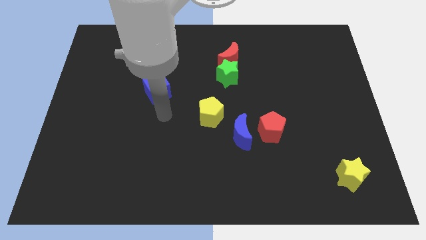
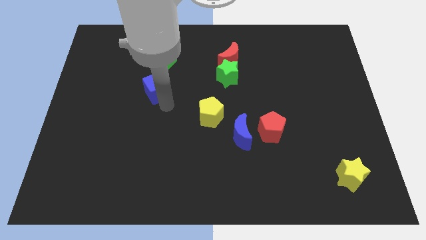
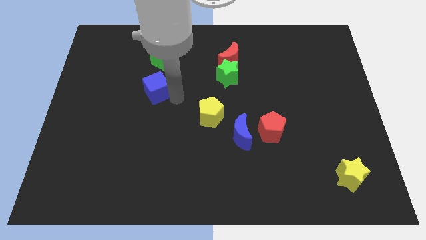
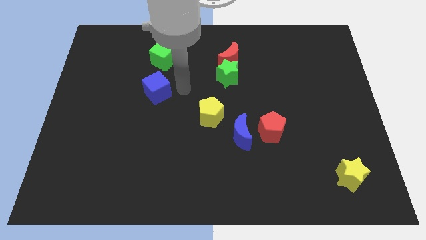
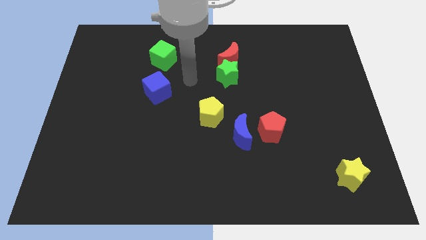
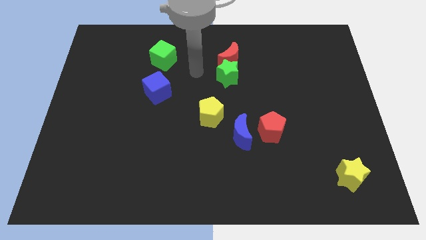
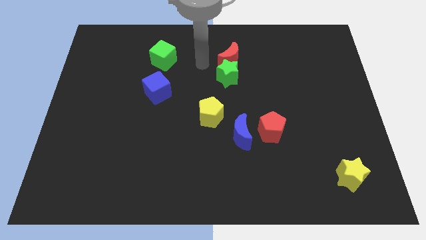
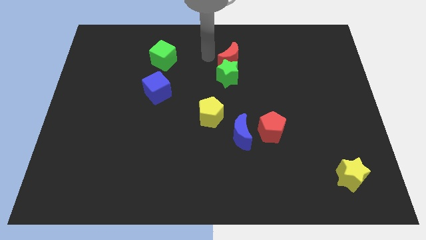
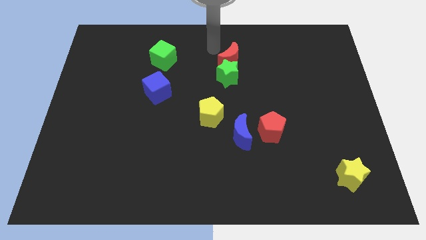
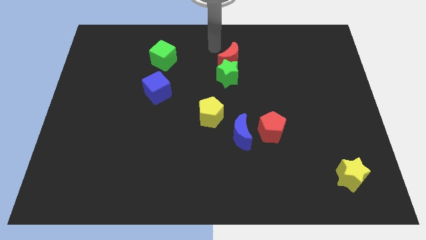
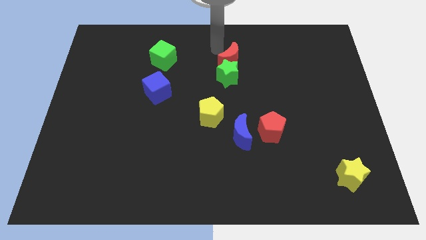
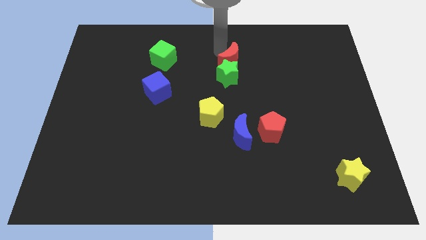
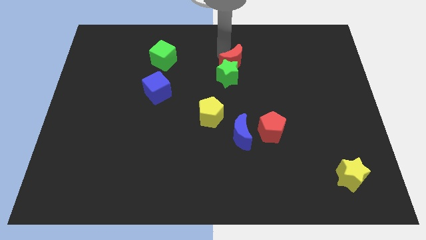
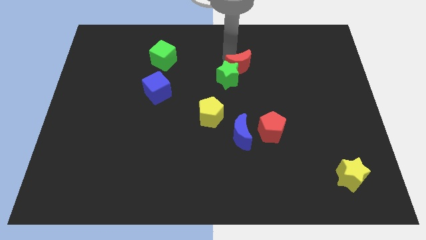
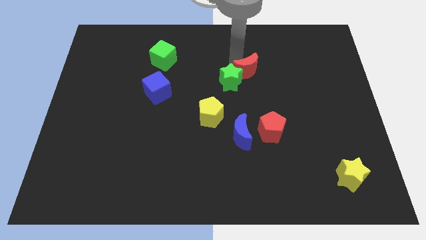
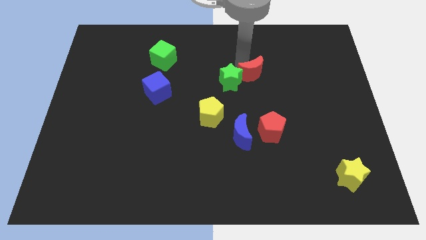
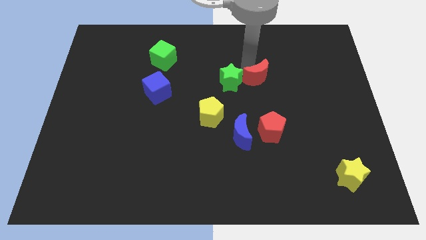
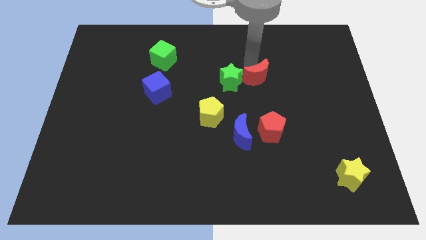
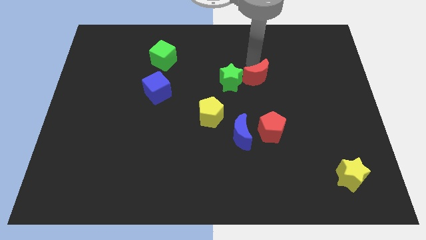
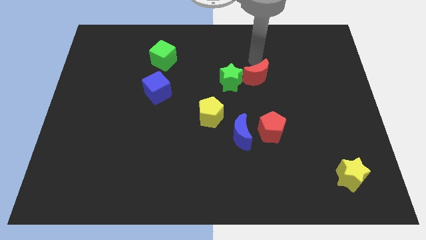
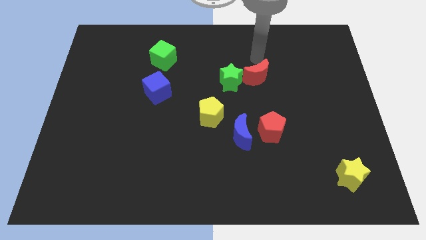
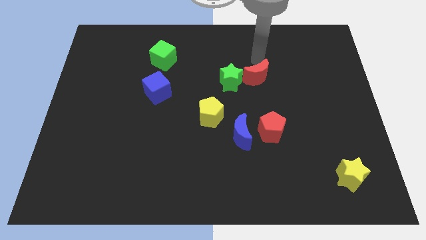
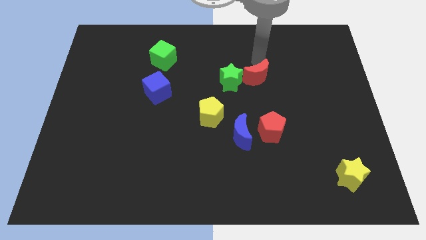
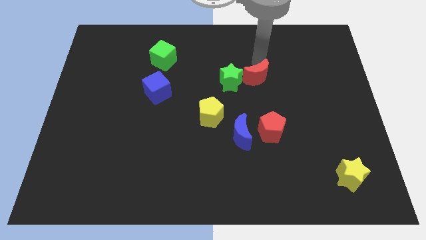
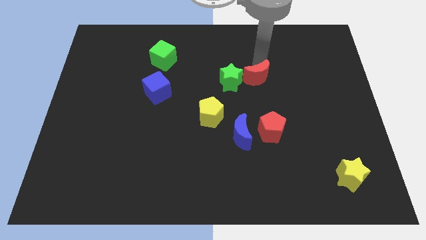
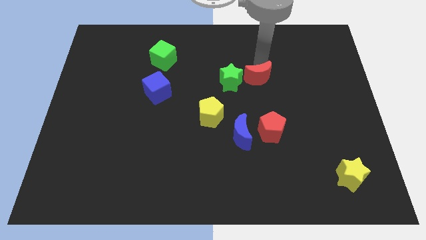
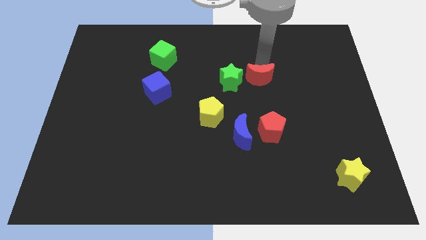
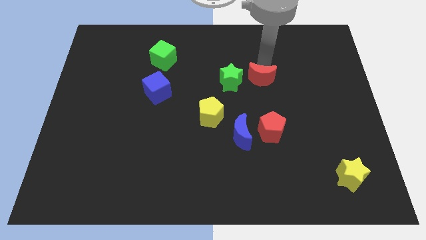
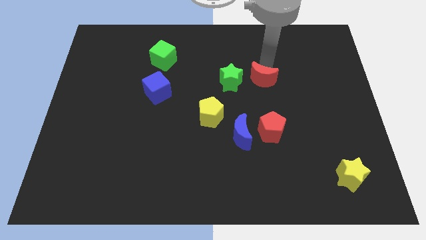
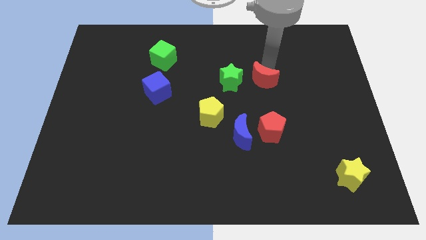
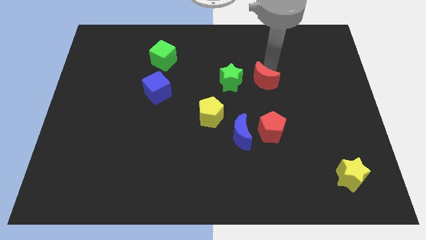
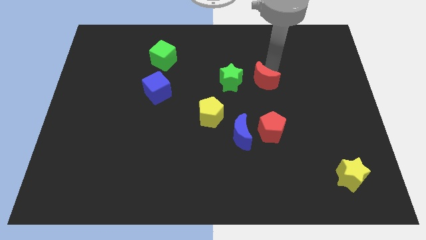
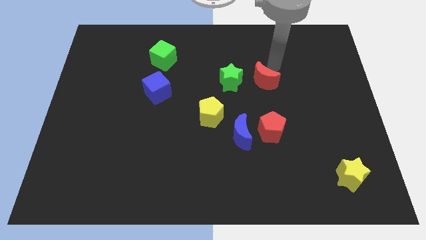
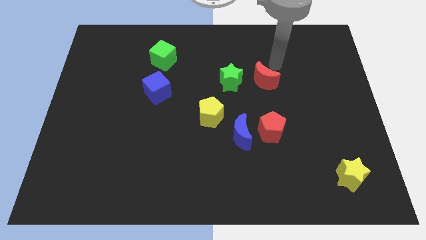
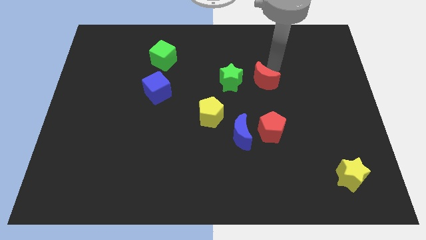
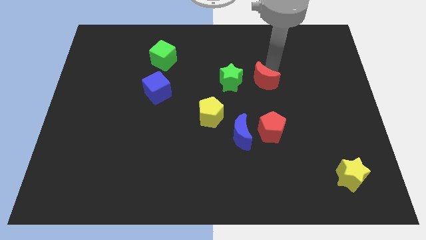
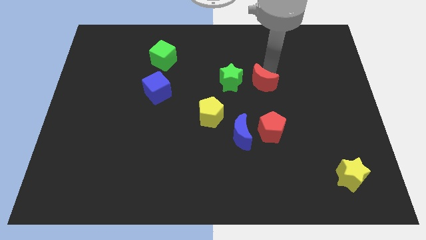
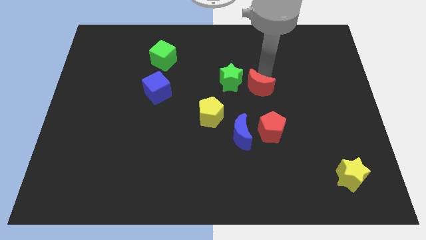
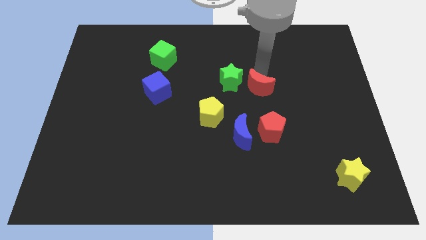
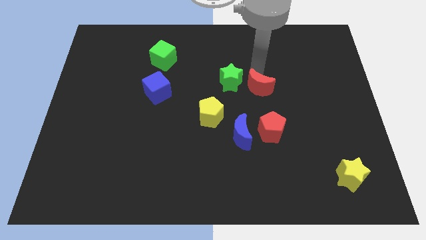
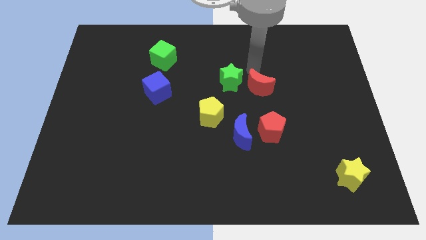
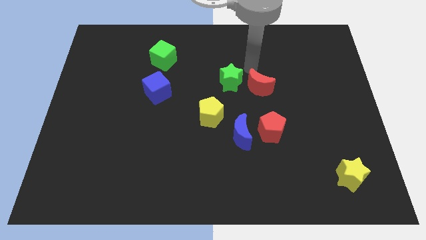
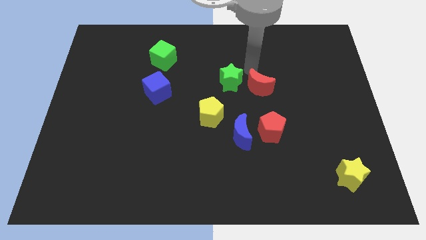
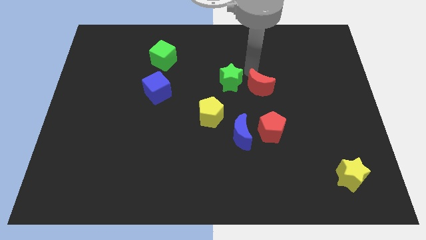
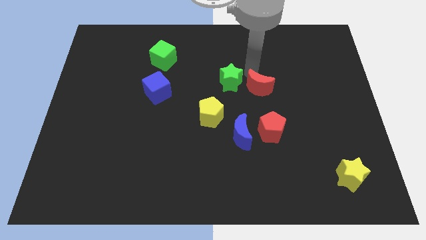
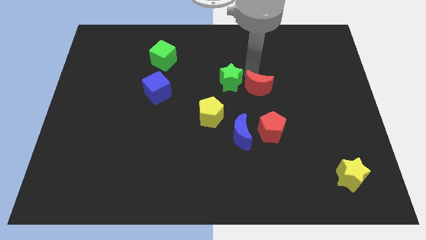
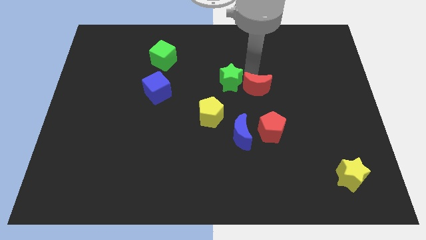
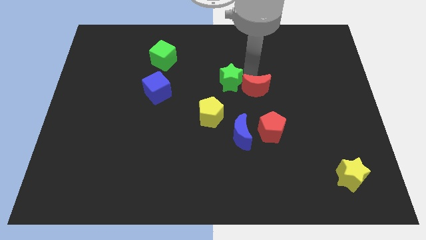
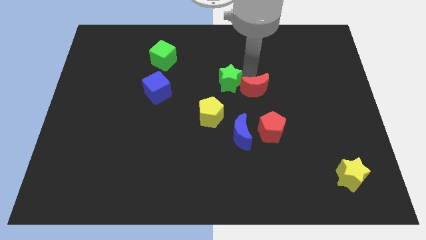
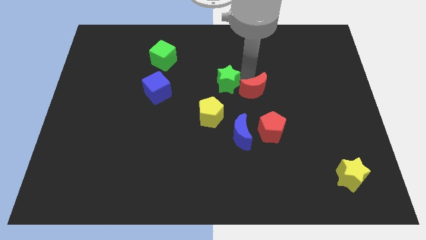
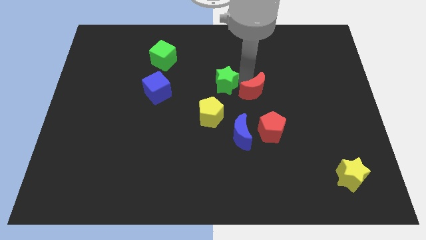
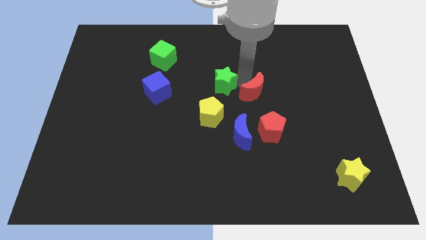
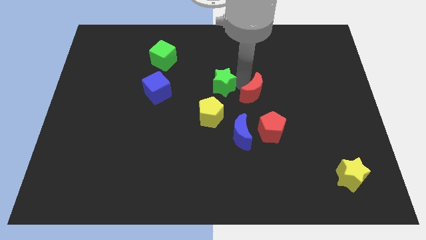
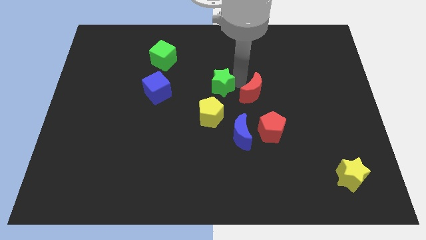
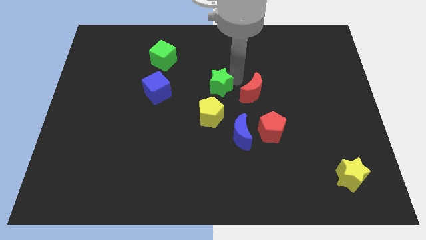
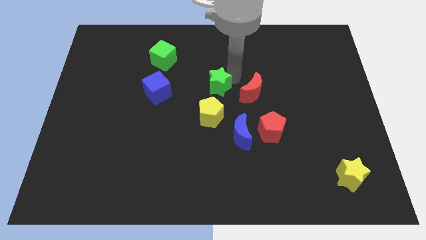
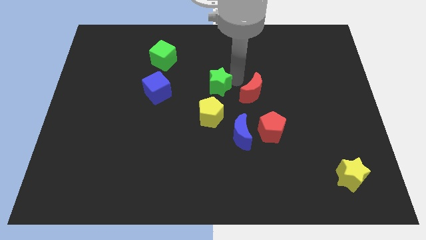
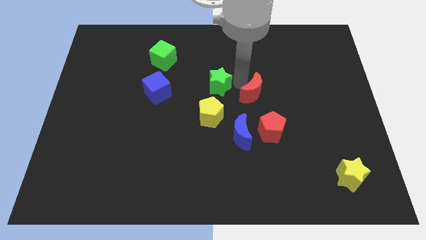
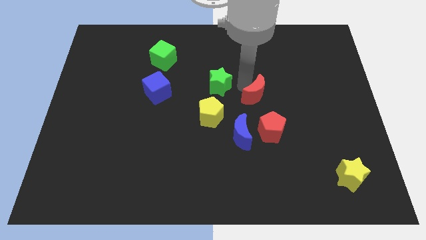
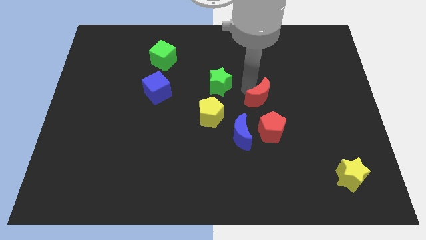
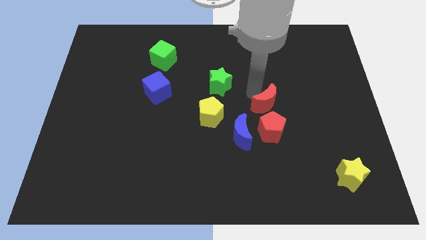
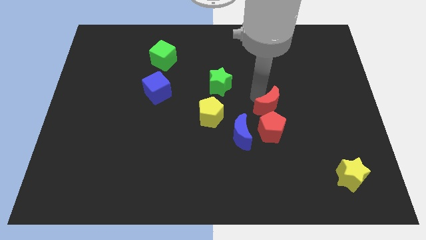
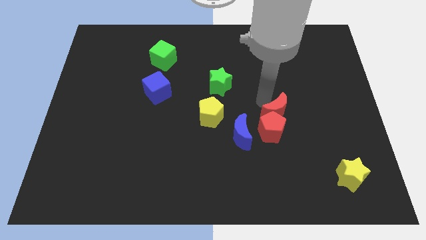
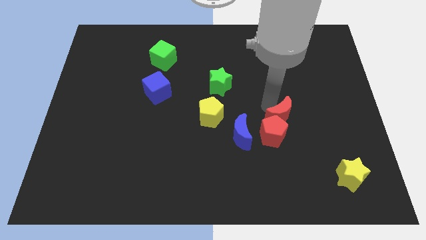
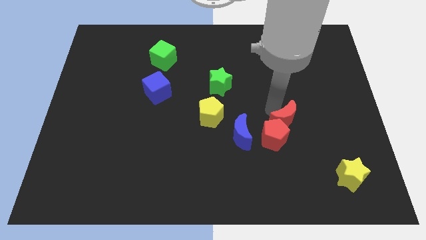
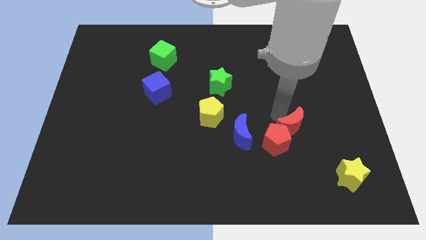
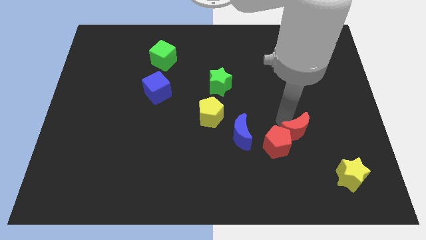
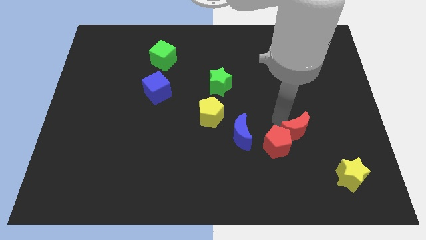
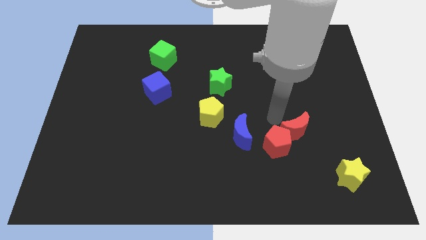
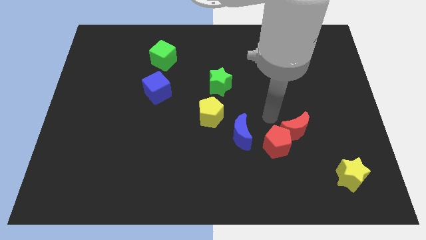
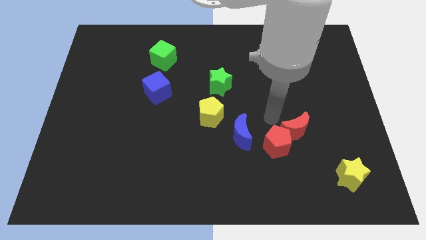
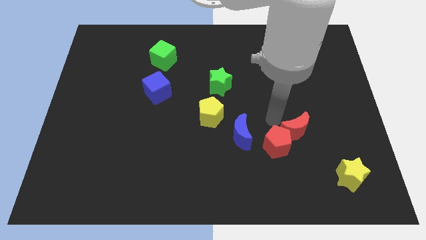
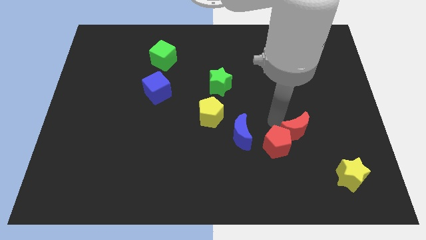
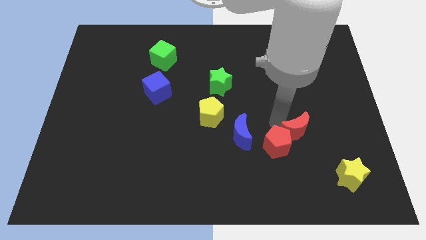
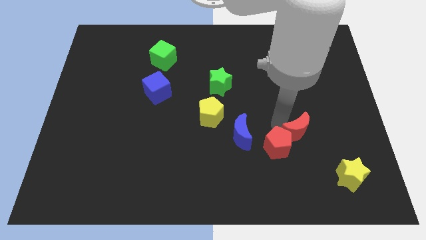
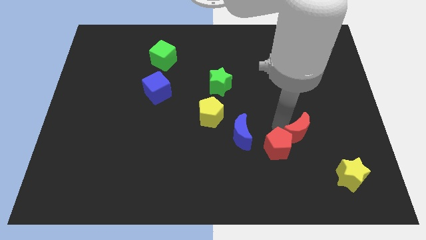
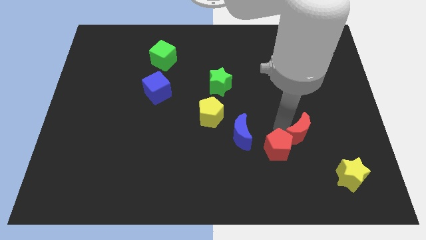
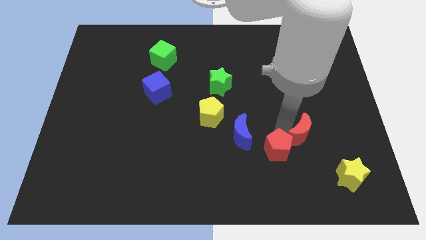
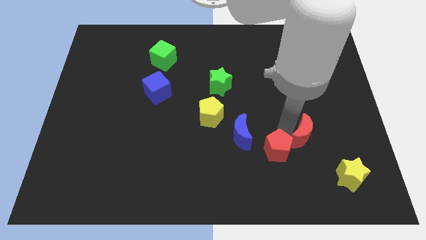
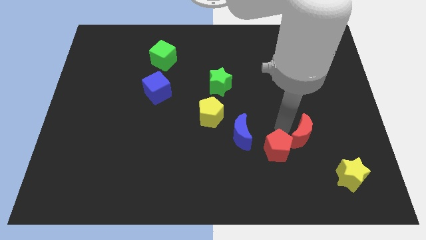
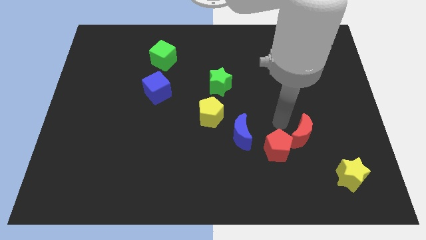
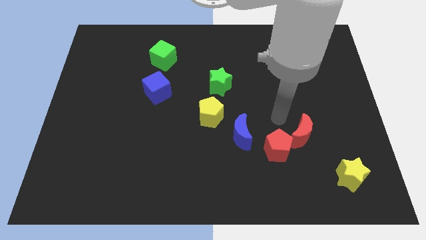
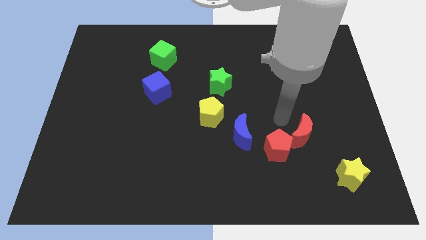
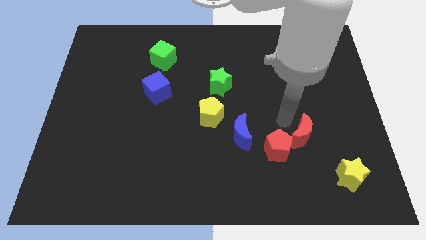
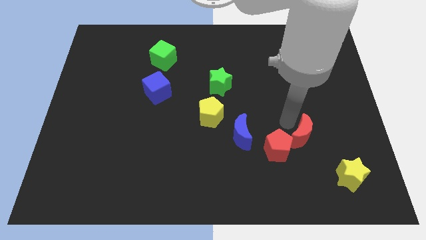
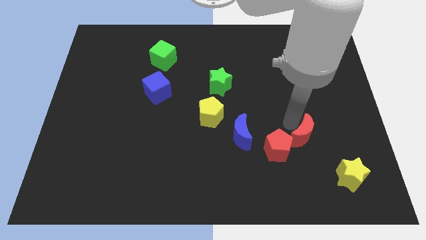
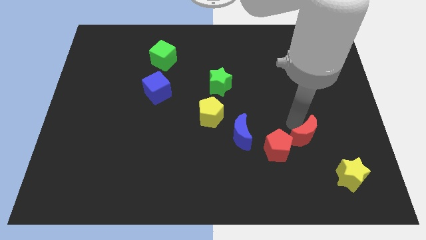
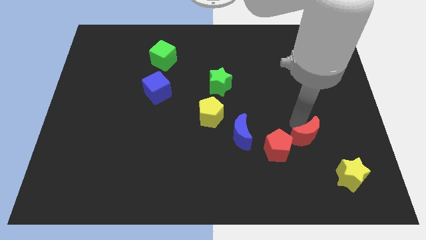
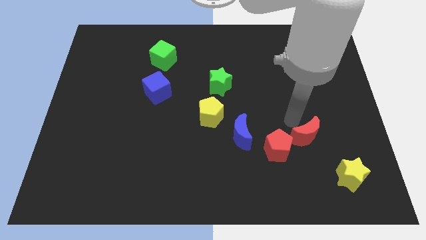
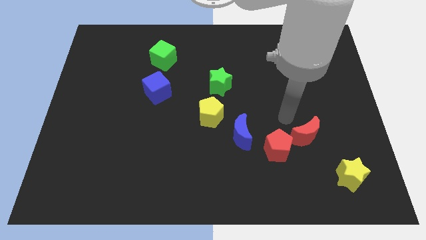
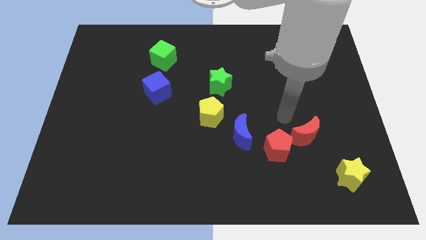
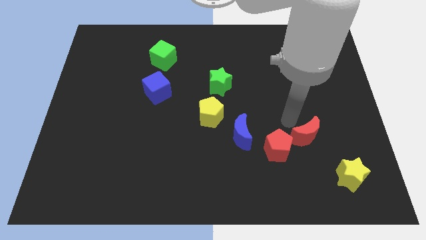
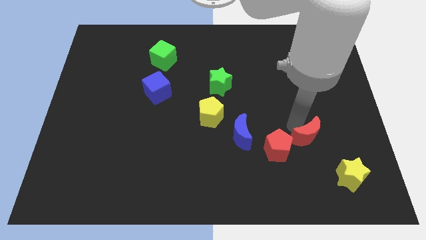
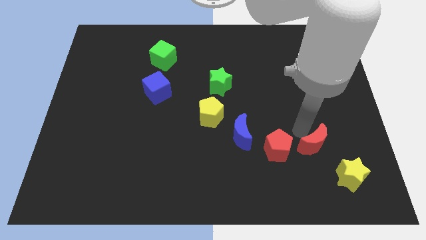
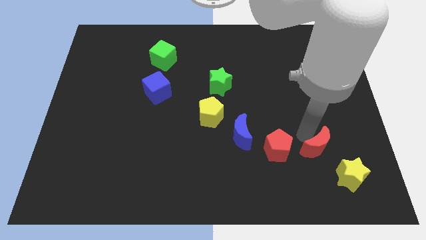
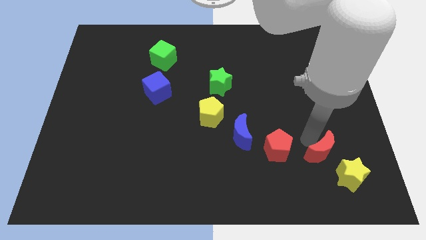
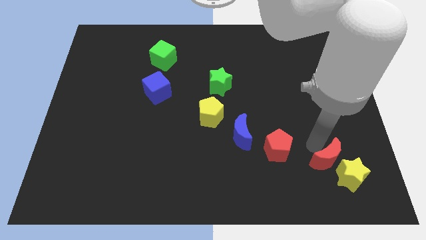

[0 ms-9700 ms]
push the red moon to the yellow star
